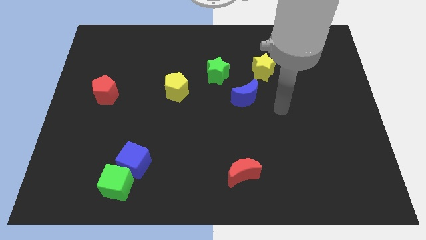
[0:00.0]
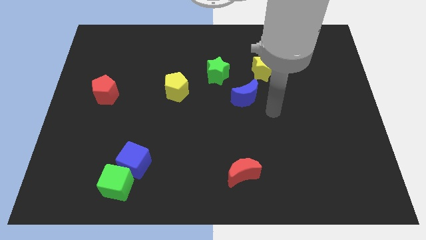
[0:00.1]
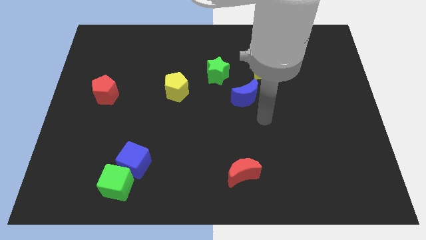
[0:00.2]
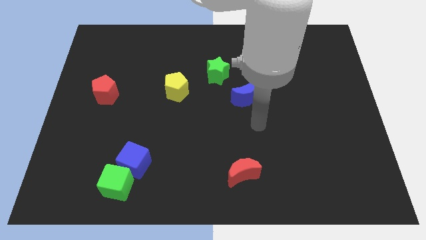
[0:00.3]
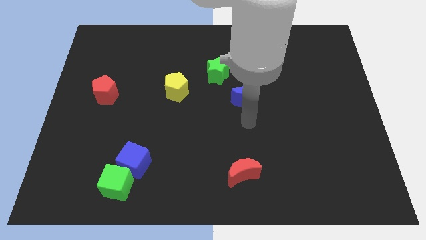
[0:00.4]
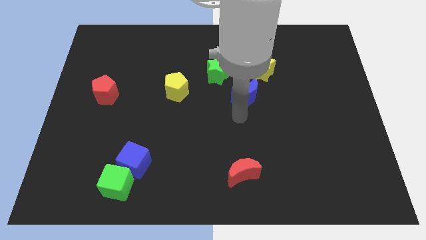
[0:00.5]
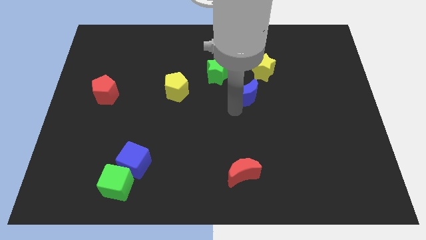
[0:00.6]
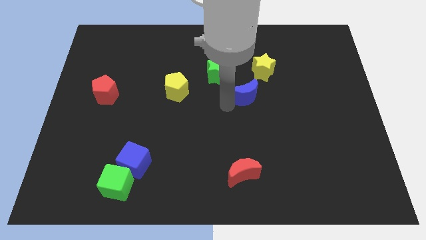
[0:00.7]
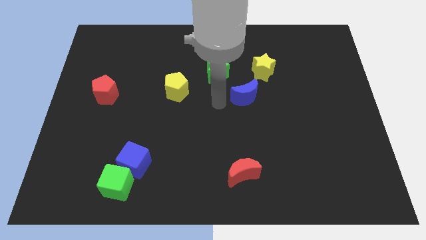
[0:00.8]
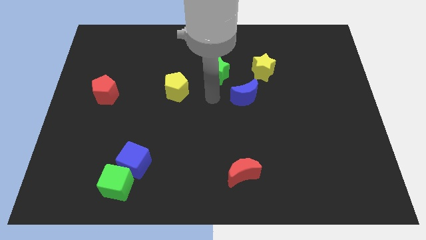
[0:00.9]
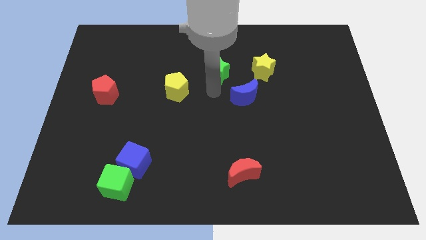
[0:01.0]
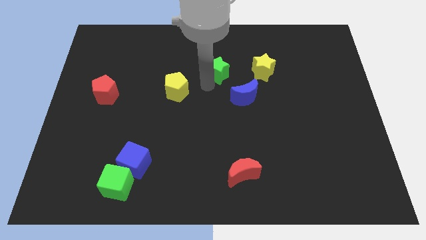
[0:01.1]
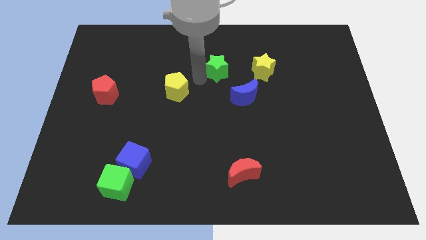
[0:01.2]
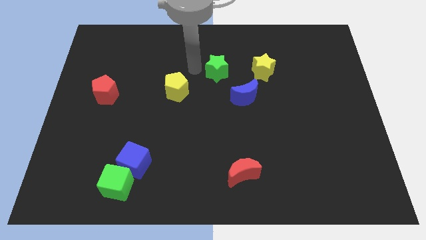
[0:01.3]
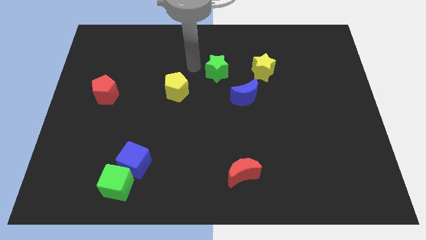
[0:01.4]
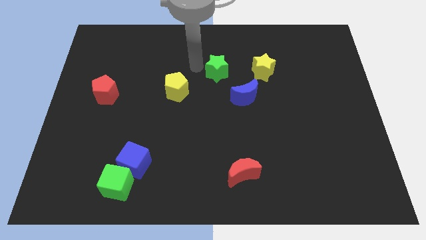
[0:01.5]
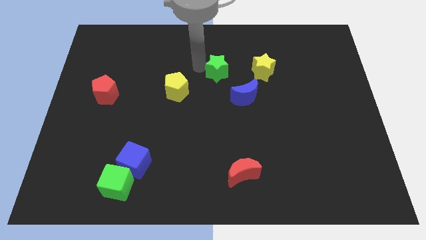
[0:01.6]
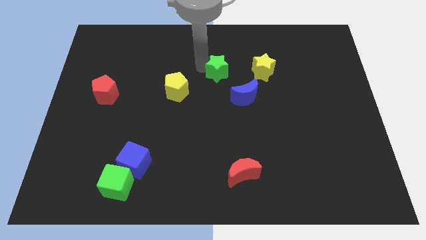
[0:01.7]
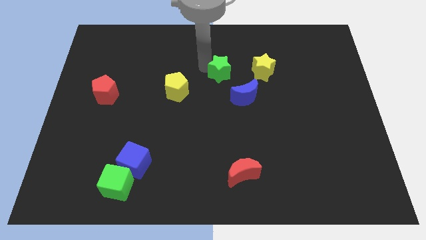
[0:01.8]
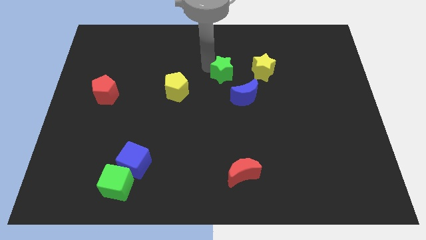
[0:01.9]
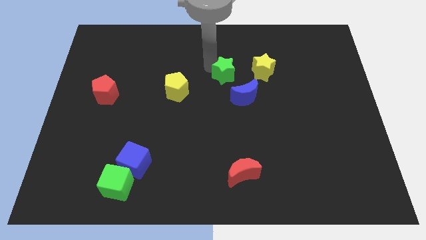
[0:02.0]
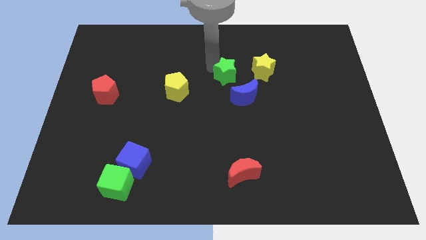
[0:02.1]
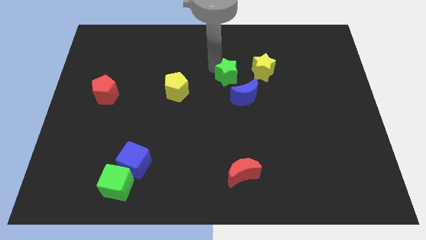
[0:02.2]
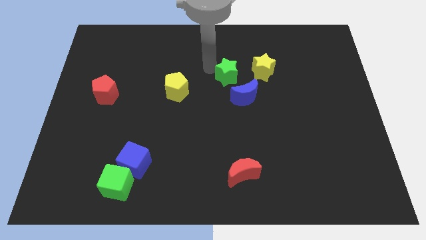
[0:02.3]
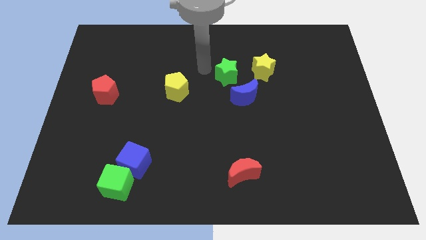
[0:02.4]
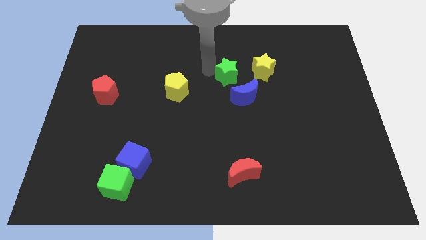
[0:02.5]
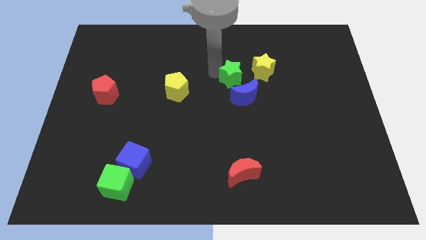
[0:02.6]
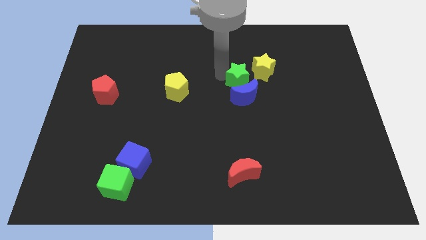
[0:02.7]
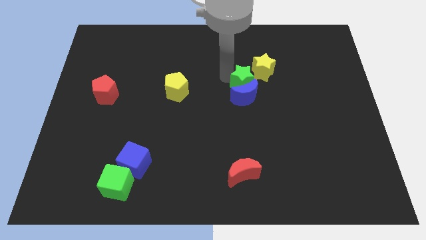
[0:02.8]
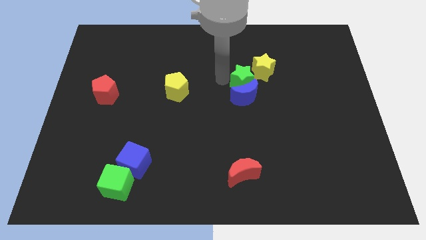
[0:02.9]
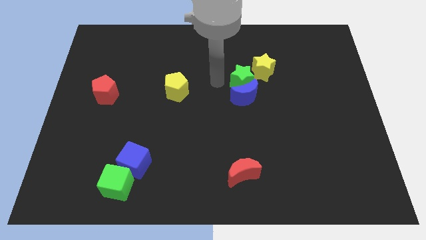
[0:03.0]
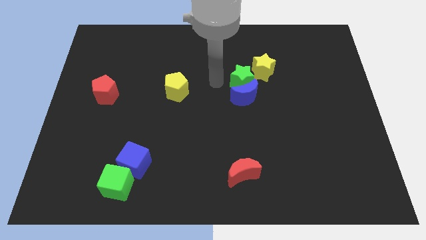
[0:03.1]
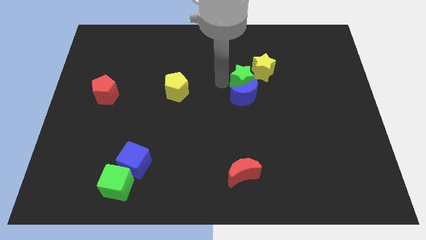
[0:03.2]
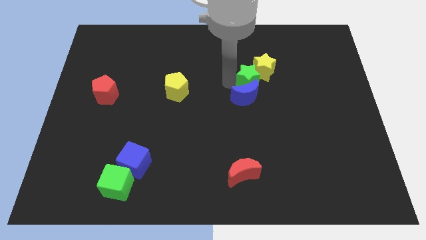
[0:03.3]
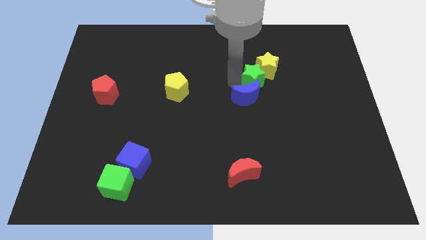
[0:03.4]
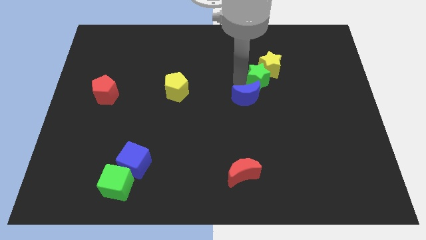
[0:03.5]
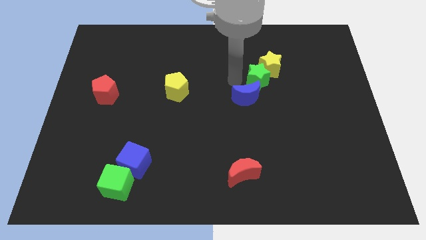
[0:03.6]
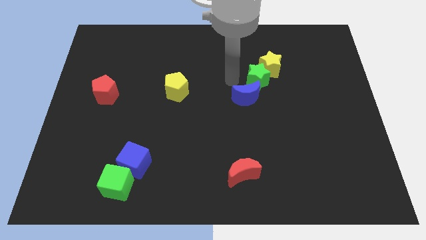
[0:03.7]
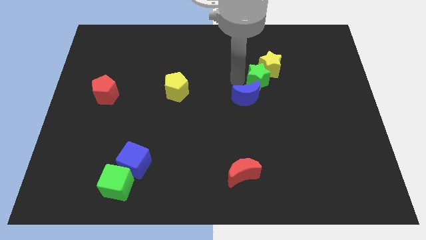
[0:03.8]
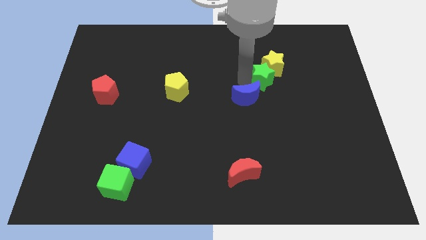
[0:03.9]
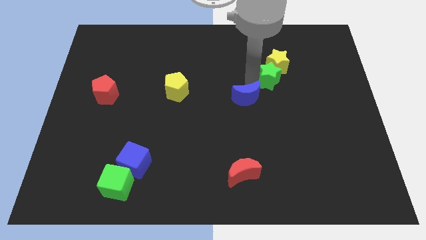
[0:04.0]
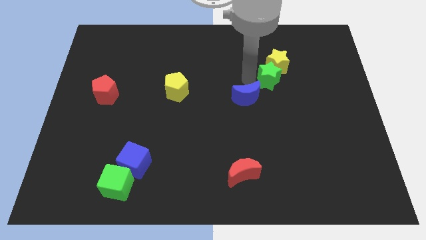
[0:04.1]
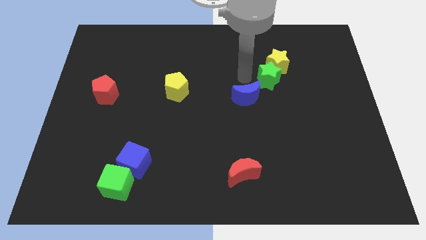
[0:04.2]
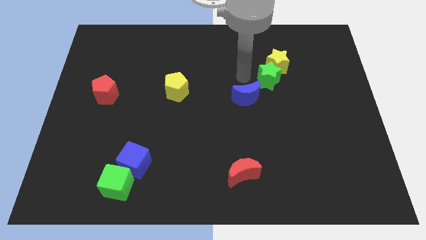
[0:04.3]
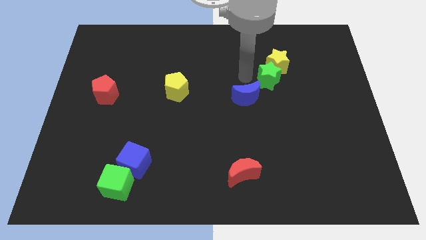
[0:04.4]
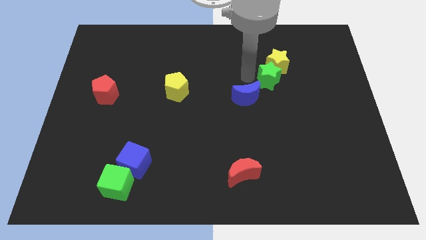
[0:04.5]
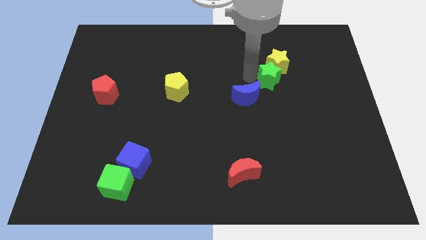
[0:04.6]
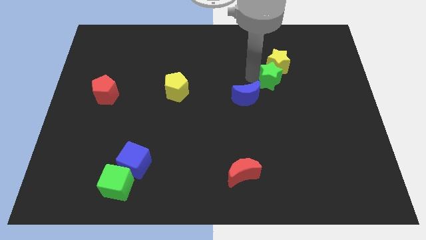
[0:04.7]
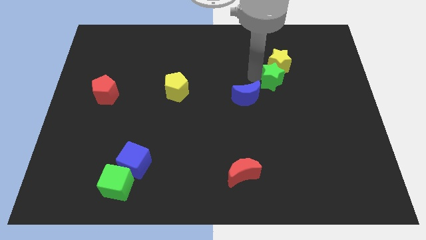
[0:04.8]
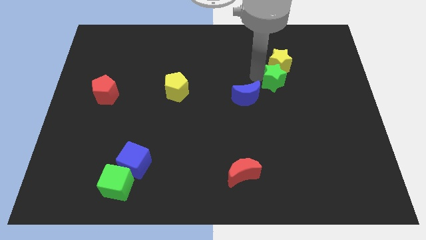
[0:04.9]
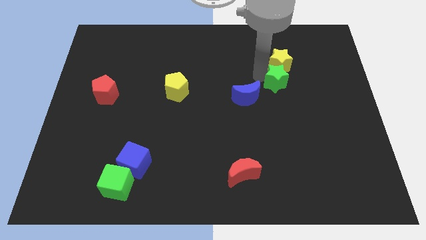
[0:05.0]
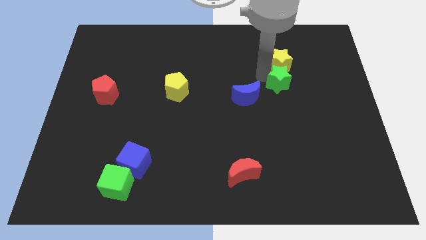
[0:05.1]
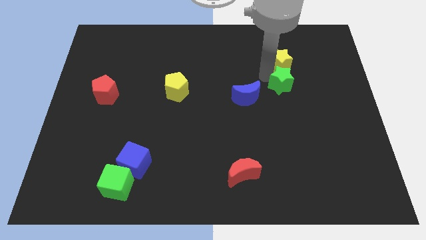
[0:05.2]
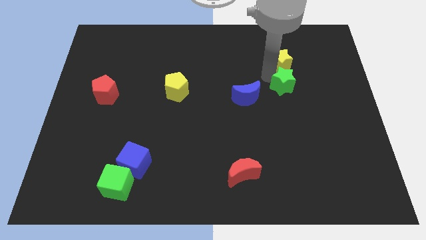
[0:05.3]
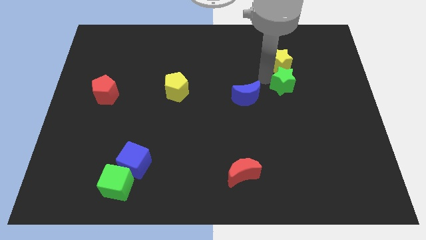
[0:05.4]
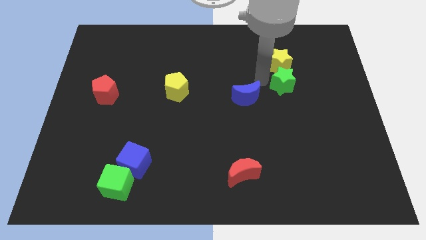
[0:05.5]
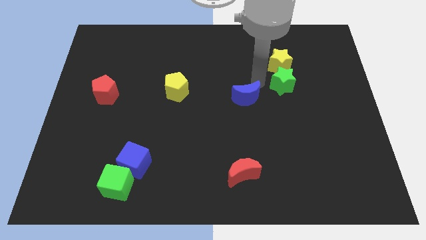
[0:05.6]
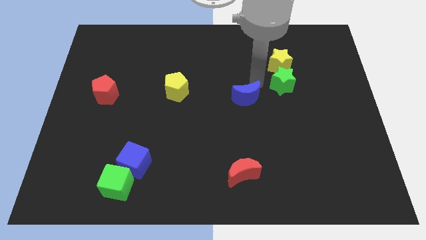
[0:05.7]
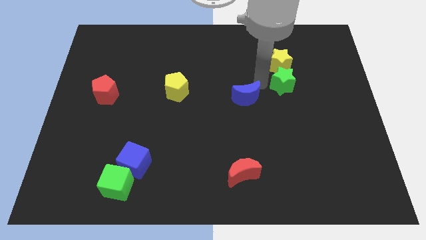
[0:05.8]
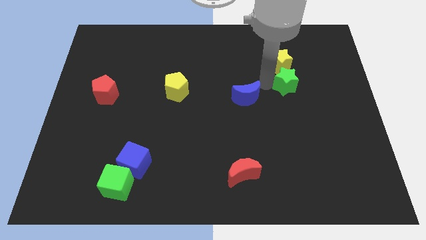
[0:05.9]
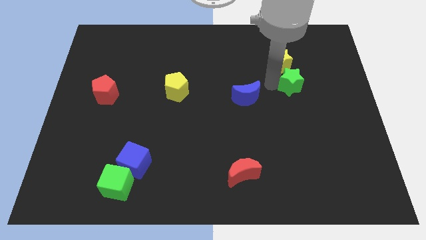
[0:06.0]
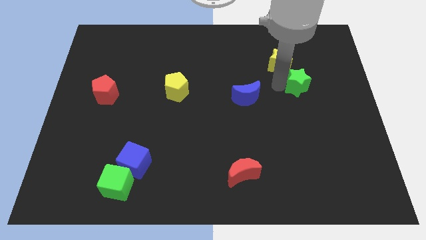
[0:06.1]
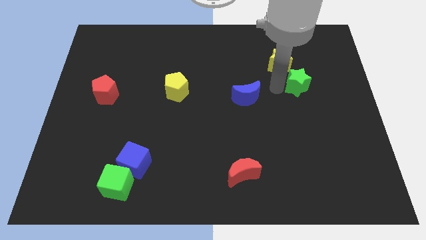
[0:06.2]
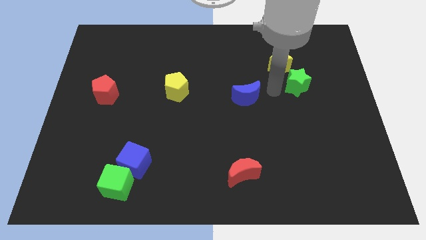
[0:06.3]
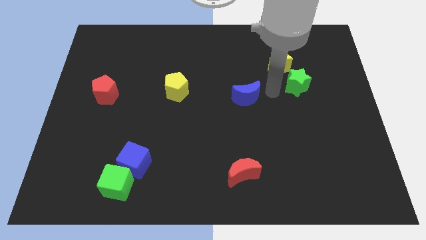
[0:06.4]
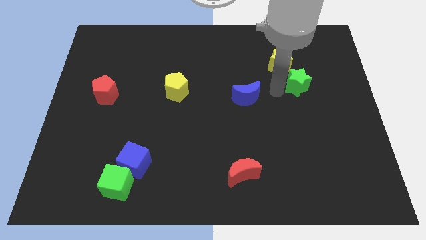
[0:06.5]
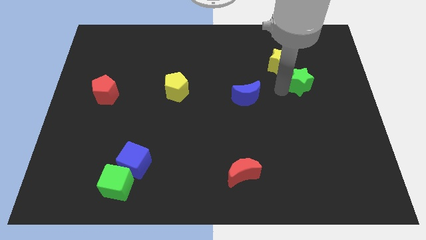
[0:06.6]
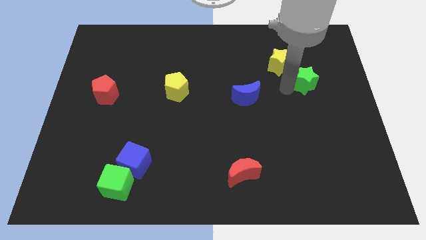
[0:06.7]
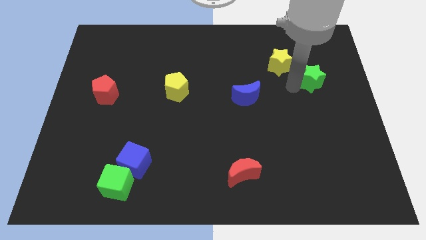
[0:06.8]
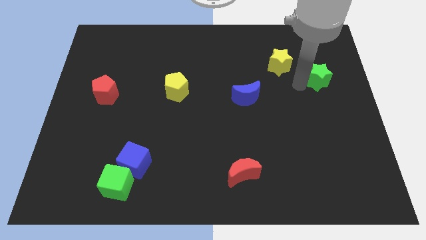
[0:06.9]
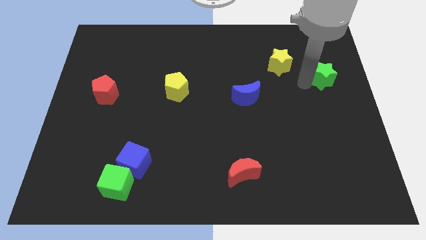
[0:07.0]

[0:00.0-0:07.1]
put the green star to the right side

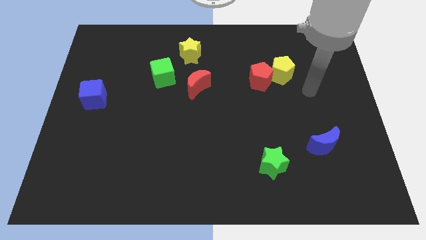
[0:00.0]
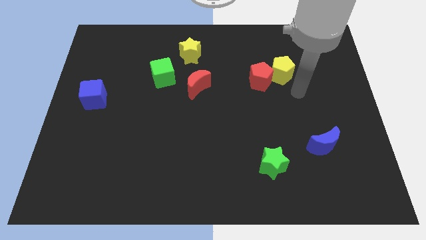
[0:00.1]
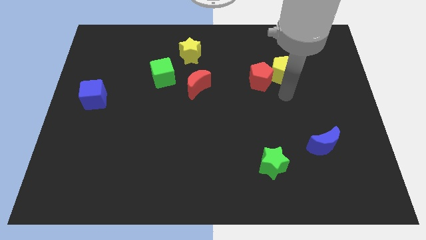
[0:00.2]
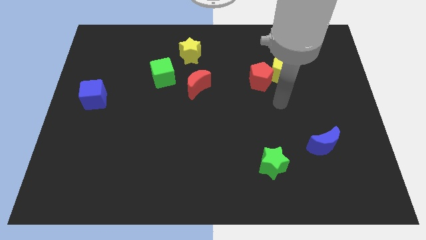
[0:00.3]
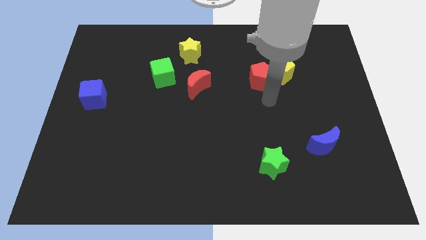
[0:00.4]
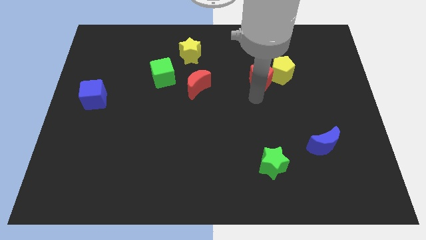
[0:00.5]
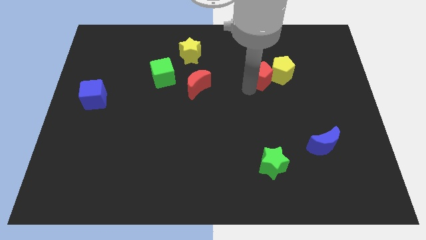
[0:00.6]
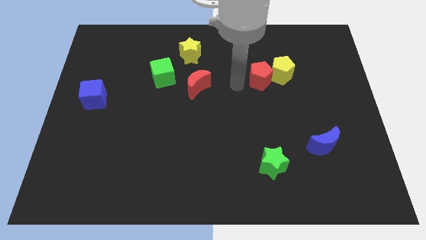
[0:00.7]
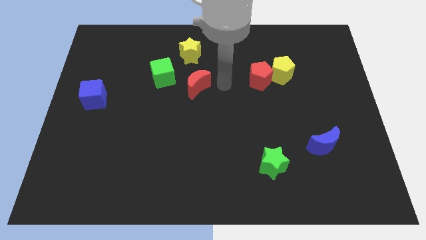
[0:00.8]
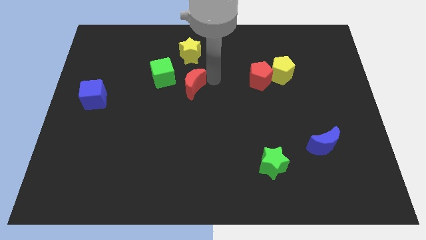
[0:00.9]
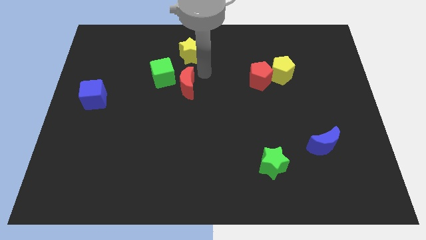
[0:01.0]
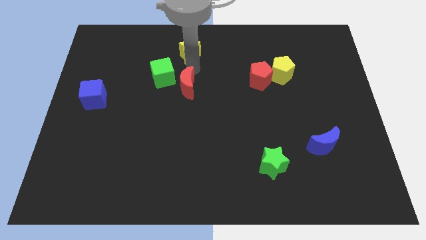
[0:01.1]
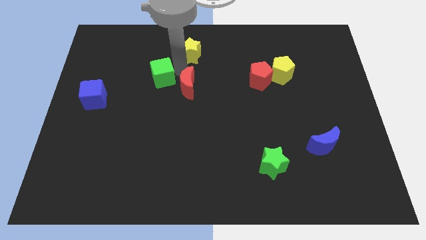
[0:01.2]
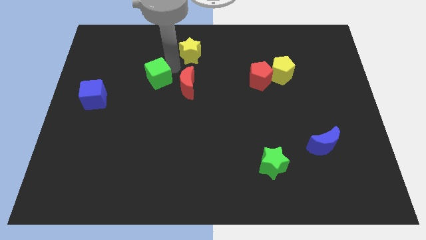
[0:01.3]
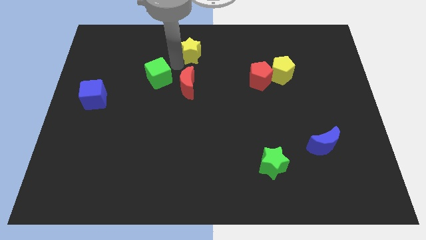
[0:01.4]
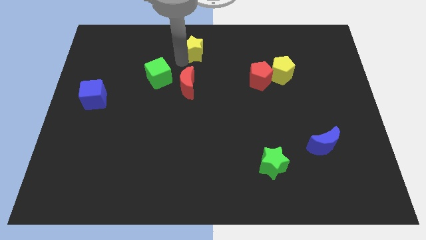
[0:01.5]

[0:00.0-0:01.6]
slide the yellow star to the towards your base
